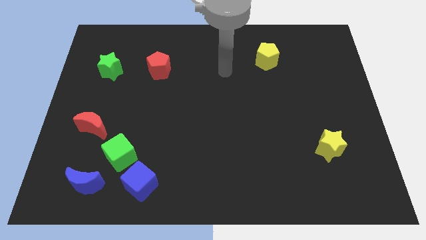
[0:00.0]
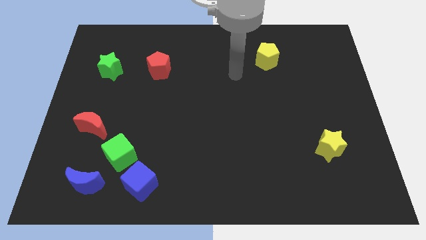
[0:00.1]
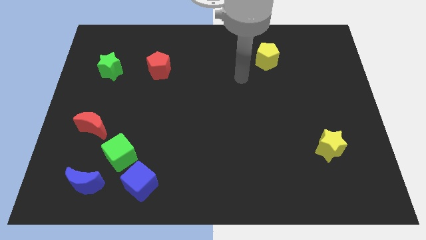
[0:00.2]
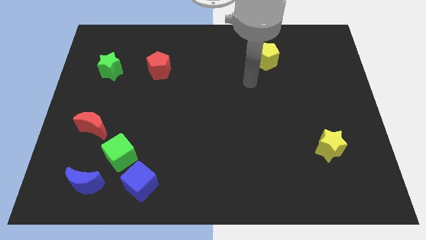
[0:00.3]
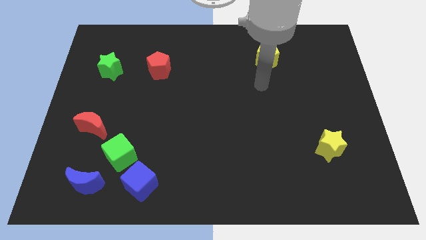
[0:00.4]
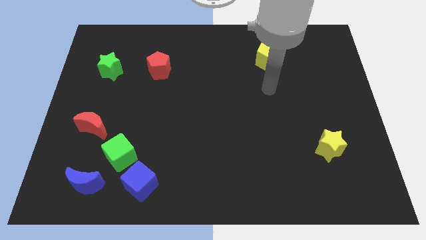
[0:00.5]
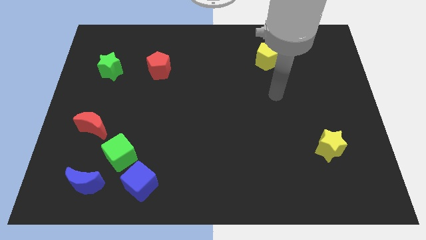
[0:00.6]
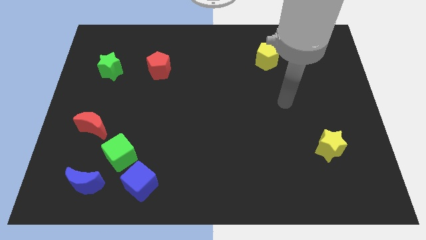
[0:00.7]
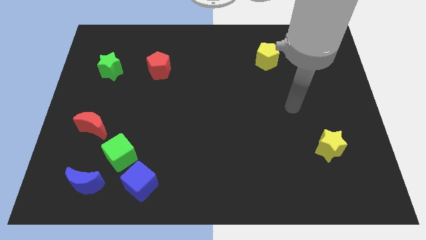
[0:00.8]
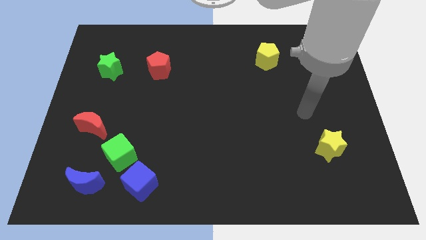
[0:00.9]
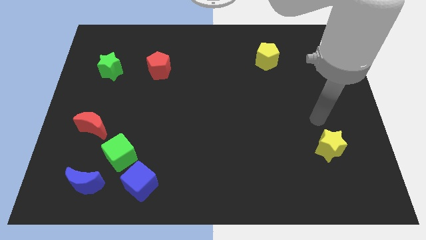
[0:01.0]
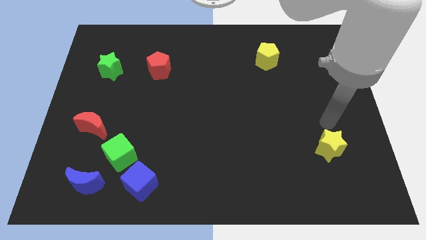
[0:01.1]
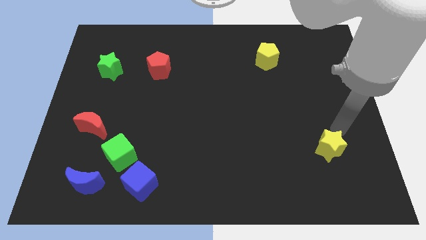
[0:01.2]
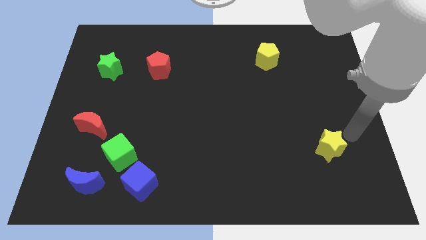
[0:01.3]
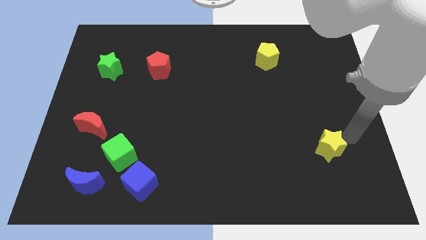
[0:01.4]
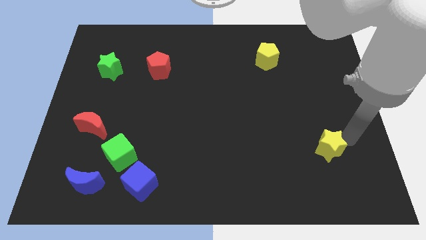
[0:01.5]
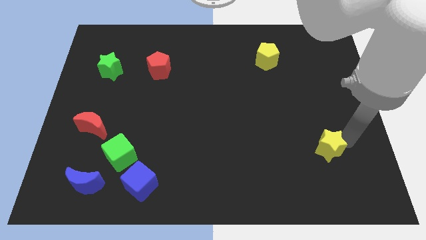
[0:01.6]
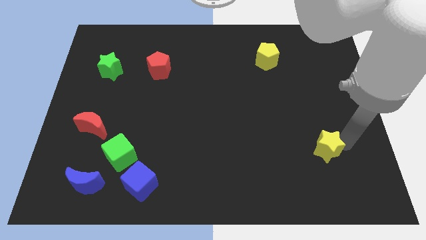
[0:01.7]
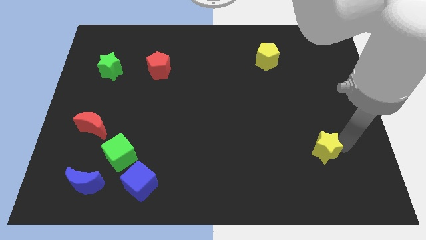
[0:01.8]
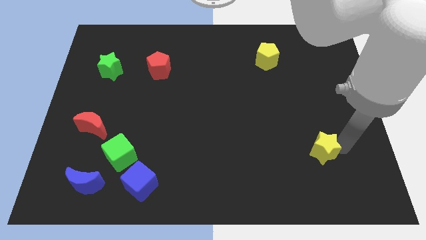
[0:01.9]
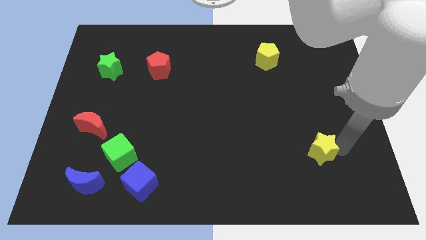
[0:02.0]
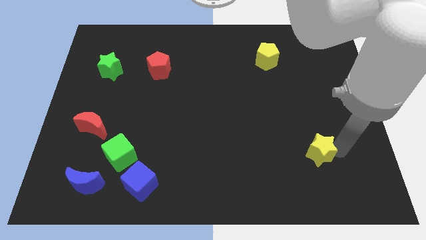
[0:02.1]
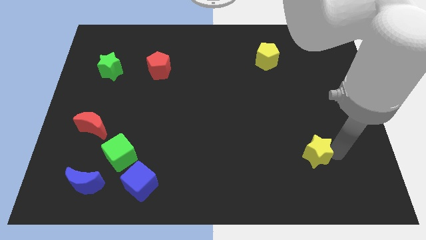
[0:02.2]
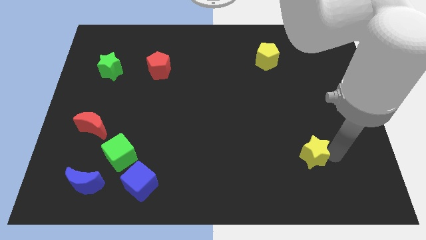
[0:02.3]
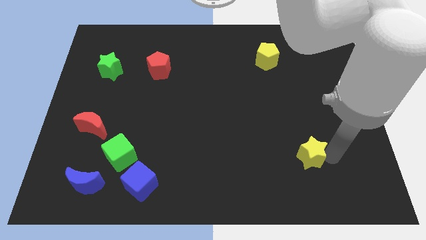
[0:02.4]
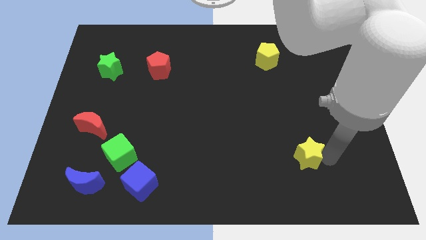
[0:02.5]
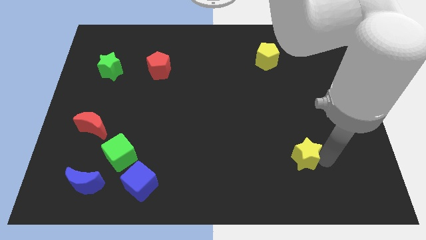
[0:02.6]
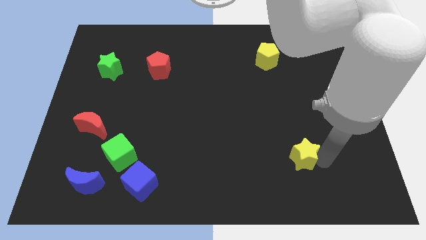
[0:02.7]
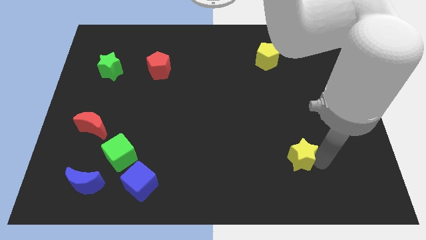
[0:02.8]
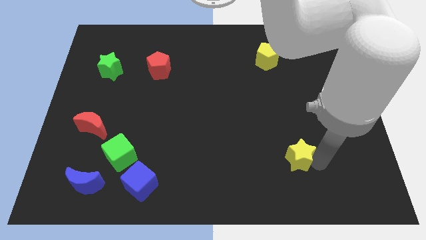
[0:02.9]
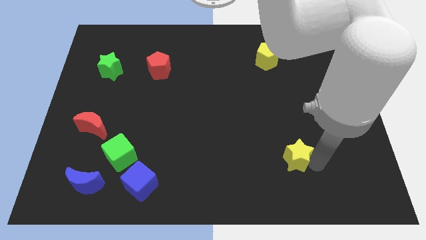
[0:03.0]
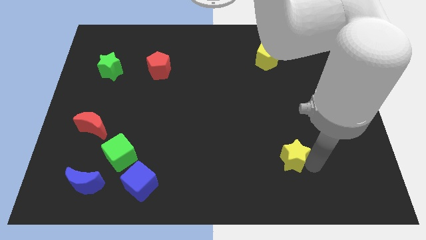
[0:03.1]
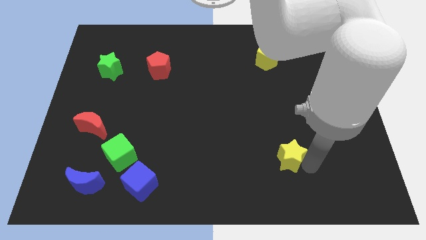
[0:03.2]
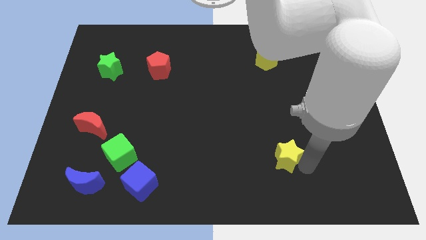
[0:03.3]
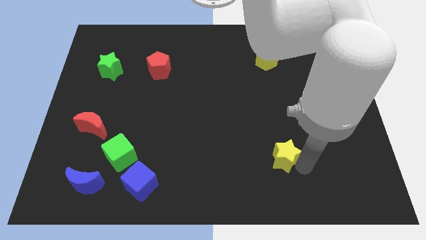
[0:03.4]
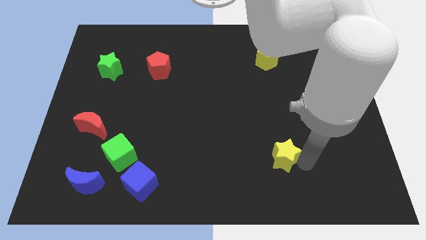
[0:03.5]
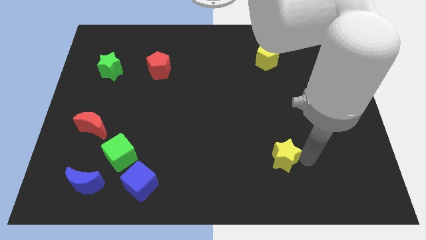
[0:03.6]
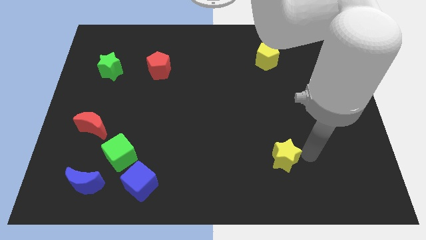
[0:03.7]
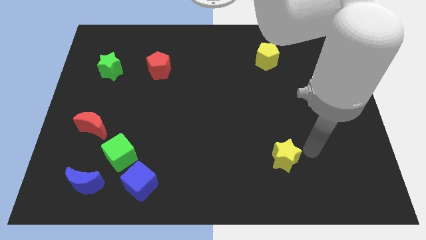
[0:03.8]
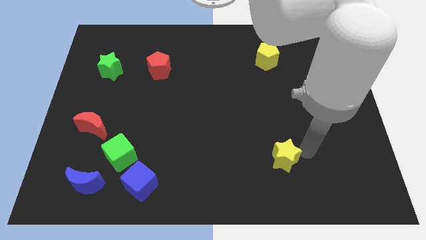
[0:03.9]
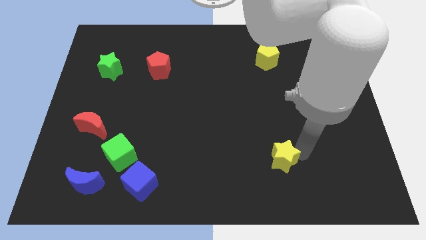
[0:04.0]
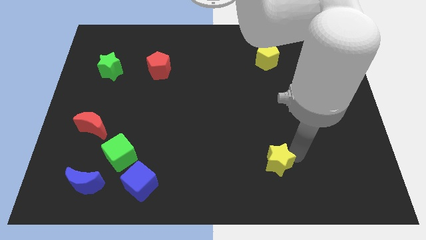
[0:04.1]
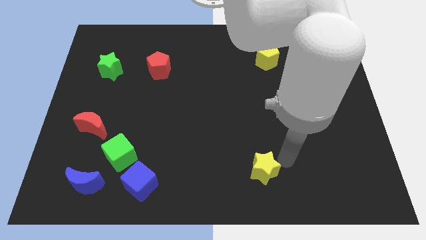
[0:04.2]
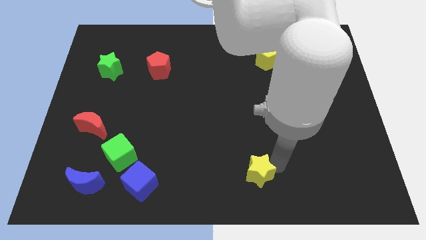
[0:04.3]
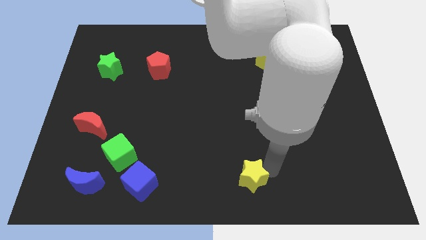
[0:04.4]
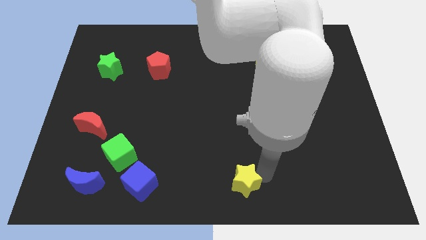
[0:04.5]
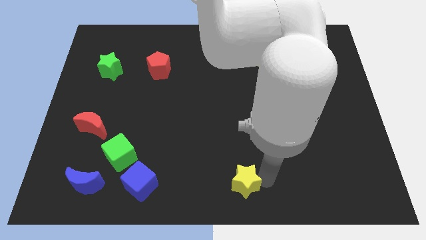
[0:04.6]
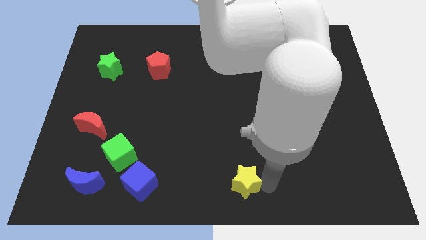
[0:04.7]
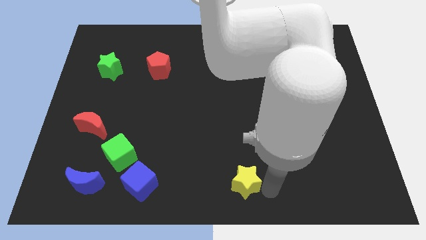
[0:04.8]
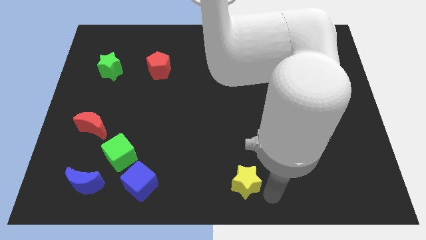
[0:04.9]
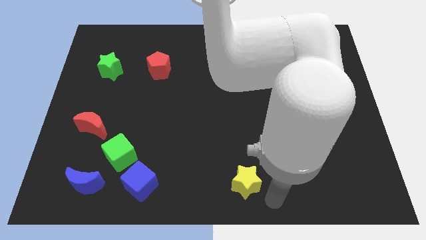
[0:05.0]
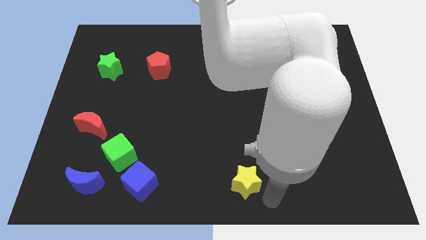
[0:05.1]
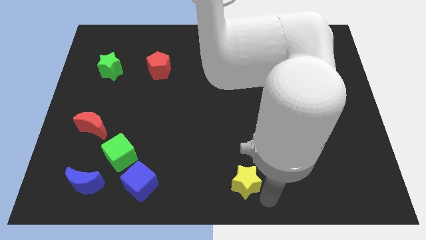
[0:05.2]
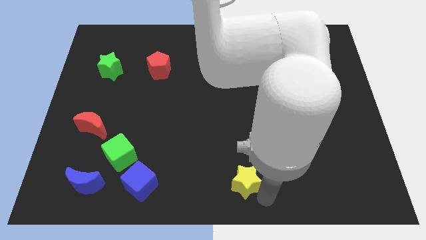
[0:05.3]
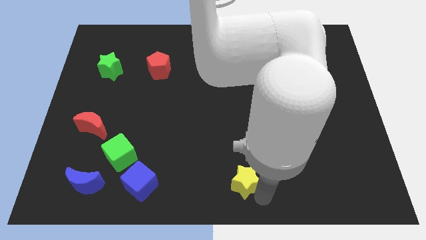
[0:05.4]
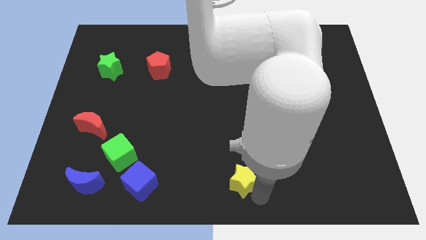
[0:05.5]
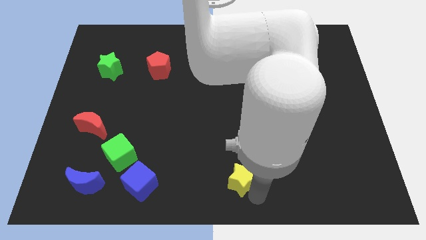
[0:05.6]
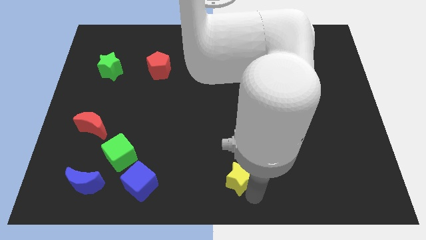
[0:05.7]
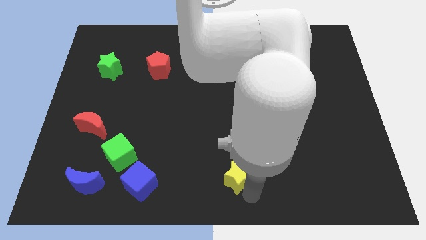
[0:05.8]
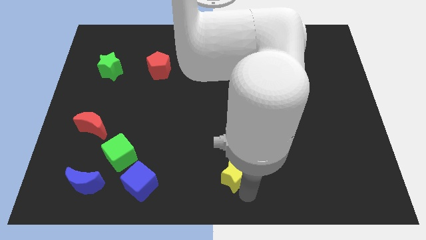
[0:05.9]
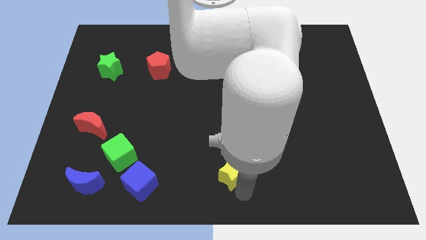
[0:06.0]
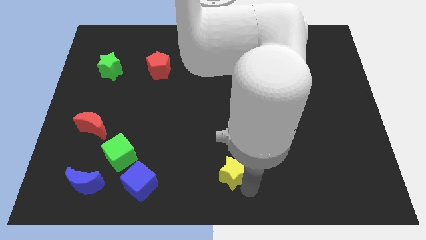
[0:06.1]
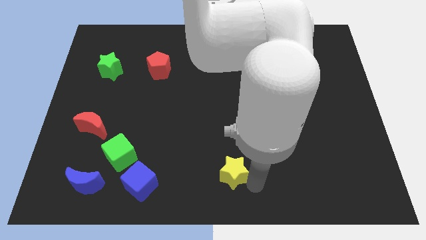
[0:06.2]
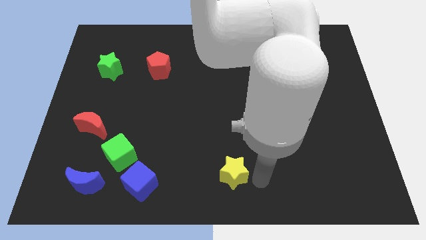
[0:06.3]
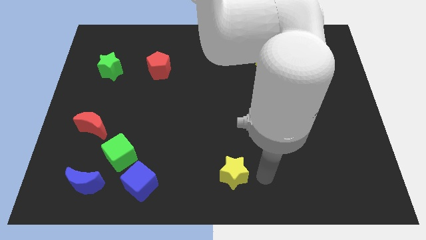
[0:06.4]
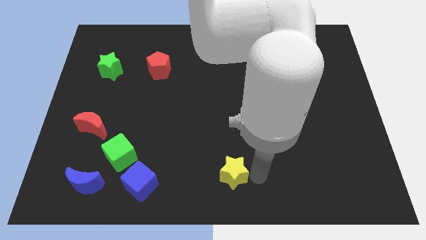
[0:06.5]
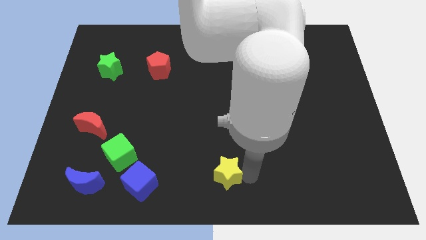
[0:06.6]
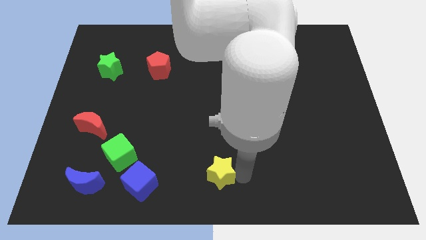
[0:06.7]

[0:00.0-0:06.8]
slide the yellow star to the right of the blue cube

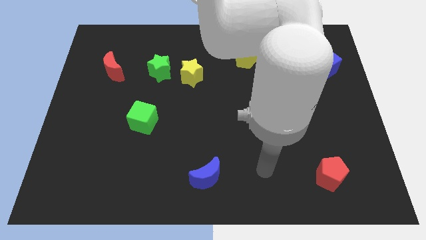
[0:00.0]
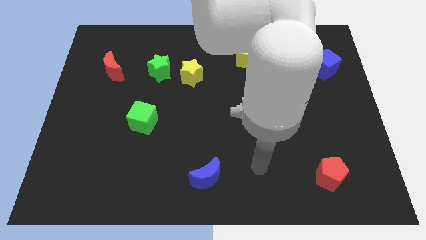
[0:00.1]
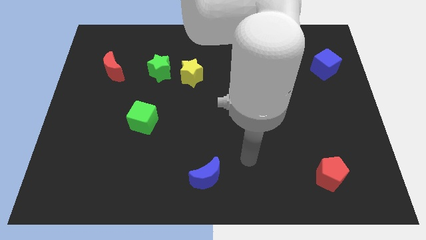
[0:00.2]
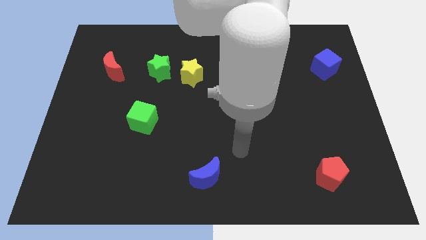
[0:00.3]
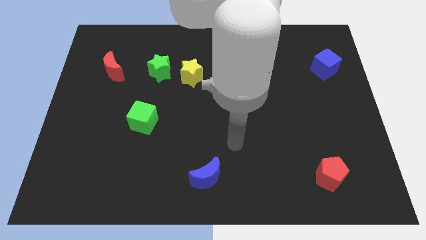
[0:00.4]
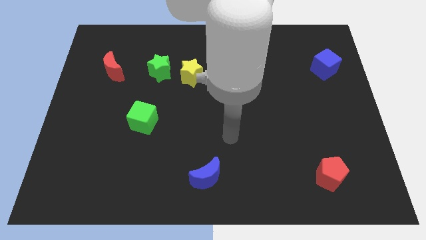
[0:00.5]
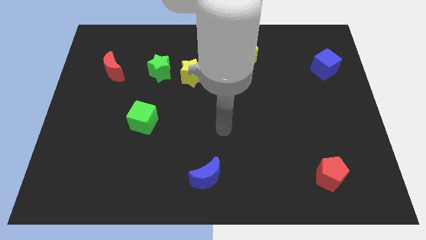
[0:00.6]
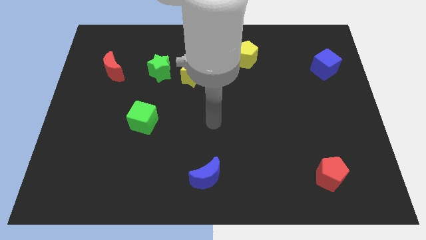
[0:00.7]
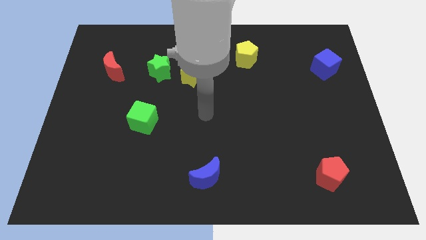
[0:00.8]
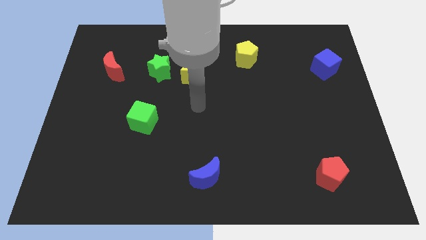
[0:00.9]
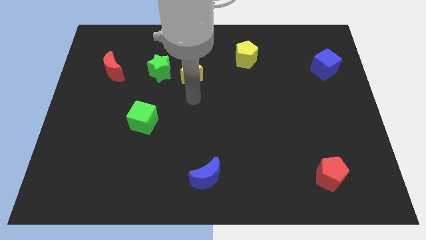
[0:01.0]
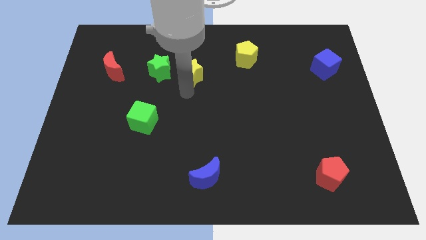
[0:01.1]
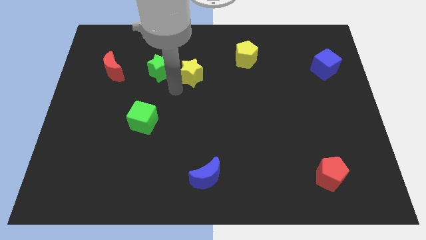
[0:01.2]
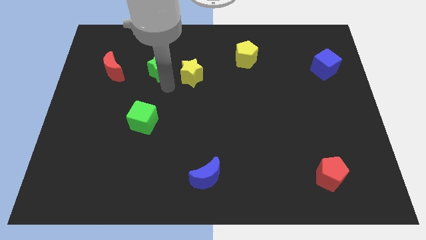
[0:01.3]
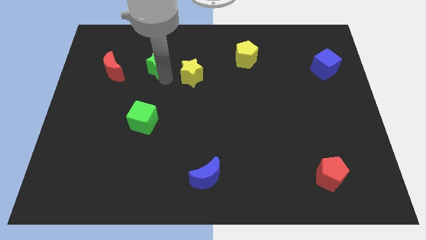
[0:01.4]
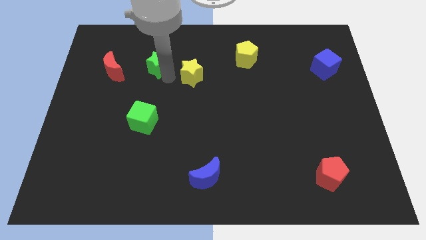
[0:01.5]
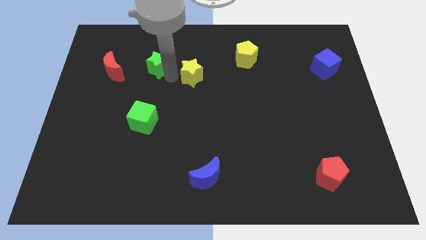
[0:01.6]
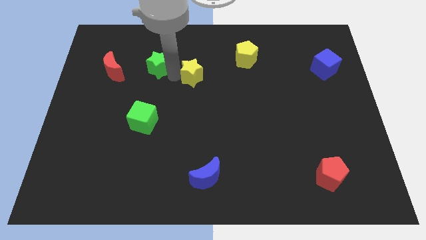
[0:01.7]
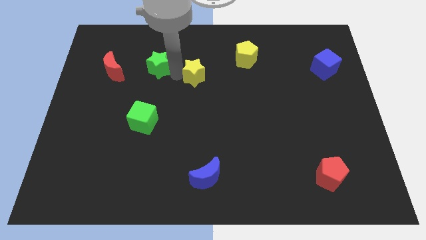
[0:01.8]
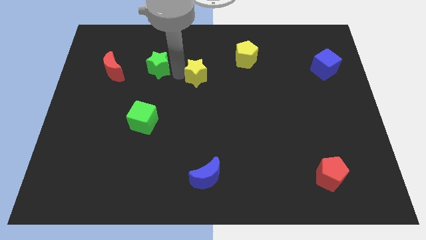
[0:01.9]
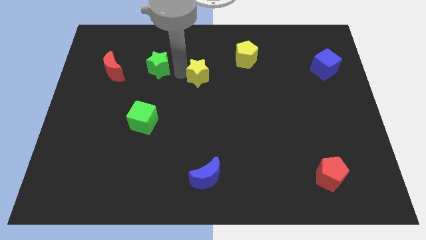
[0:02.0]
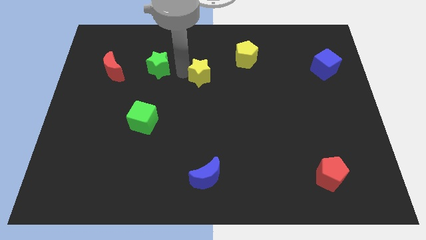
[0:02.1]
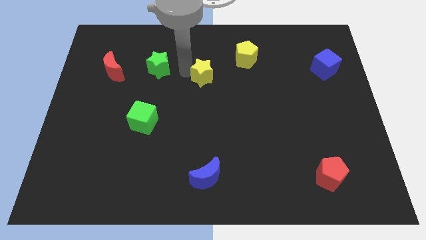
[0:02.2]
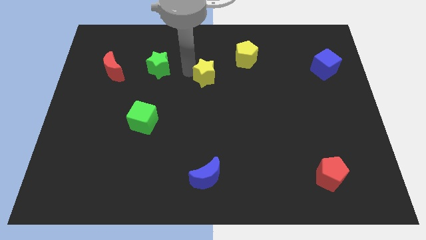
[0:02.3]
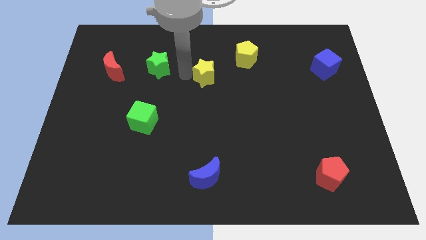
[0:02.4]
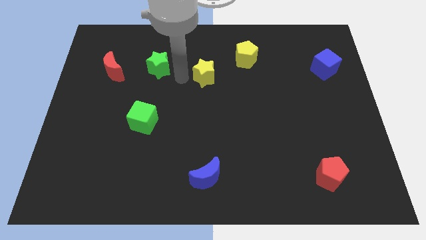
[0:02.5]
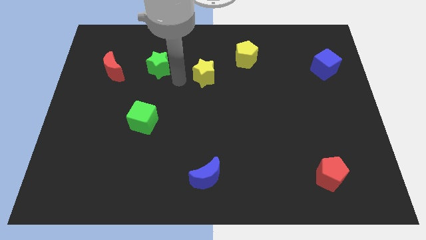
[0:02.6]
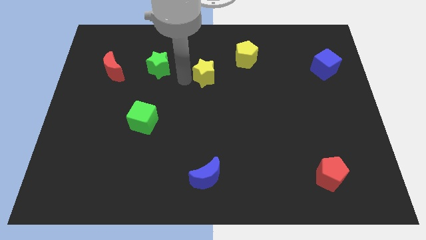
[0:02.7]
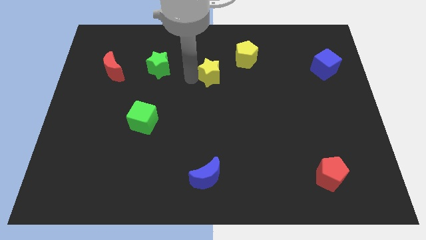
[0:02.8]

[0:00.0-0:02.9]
put the yellow star to the bottom left side of the yellow pentagon
